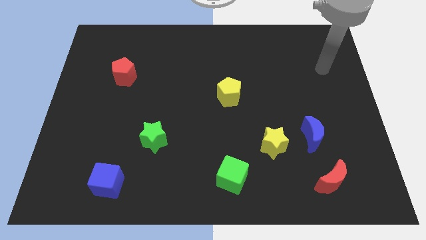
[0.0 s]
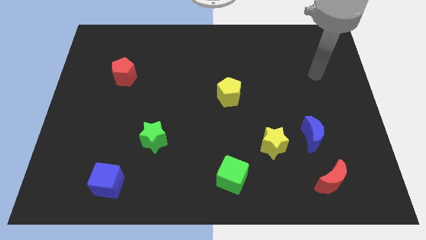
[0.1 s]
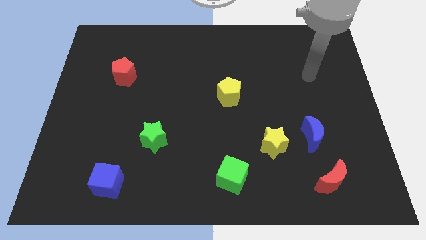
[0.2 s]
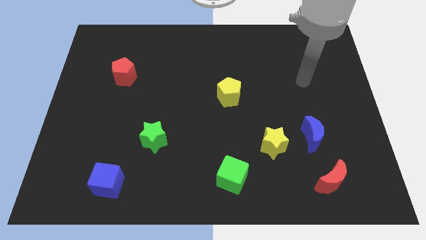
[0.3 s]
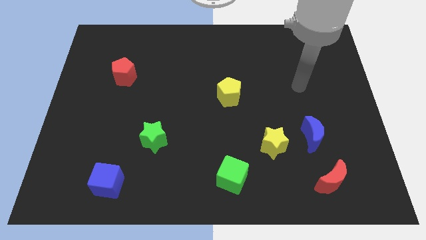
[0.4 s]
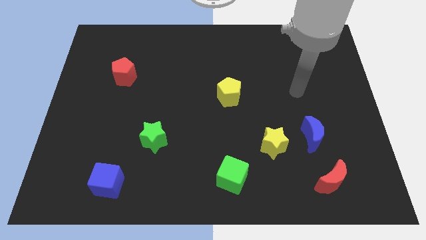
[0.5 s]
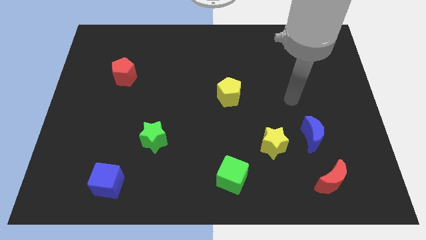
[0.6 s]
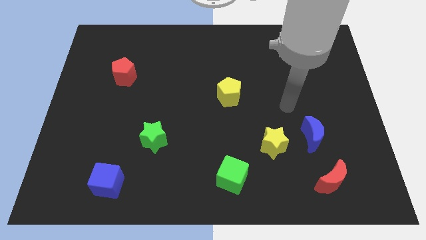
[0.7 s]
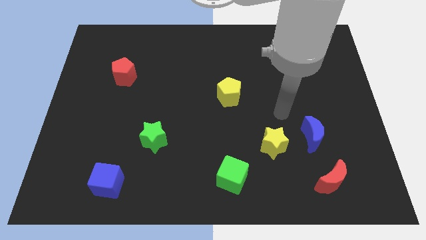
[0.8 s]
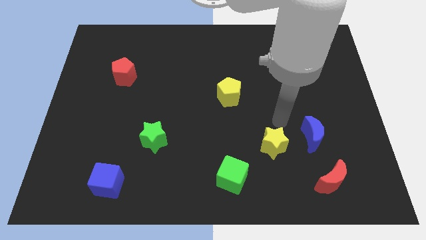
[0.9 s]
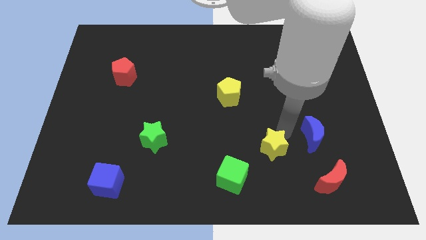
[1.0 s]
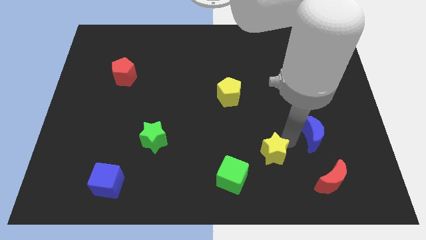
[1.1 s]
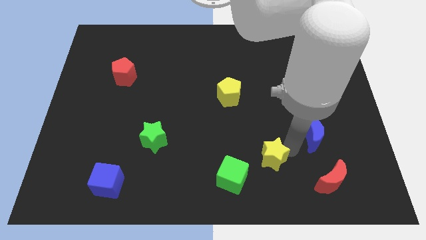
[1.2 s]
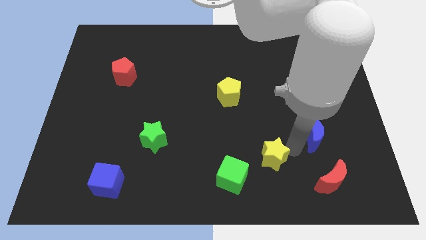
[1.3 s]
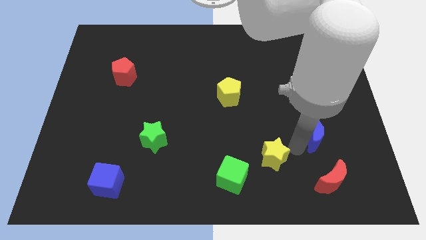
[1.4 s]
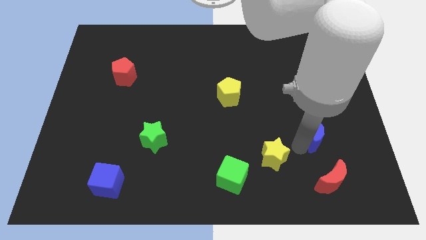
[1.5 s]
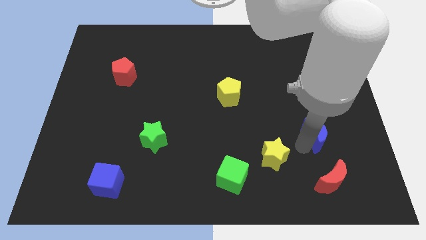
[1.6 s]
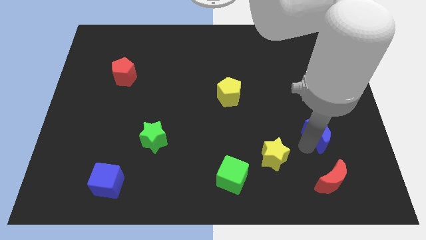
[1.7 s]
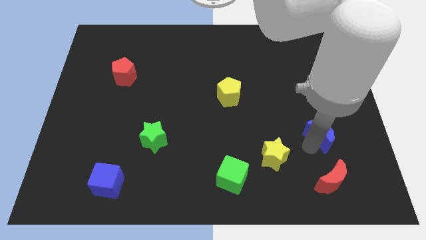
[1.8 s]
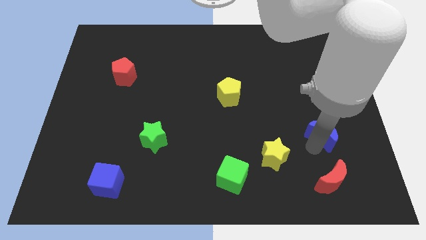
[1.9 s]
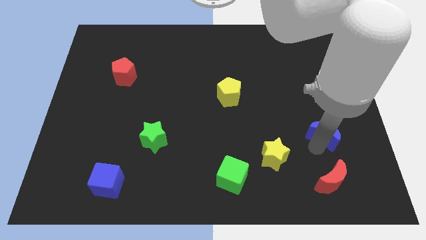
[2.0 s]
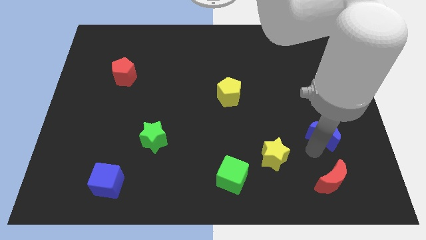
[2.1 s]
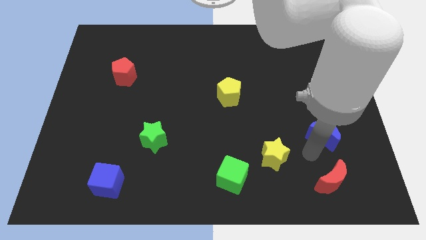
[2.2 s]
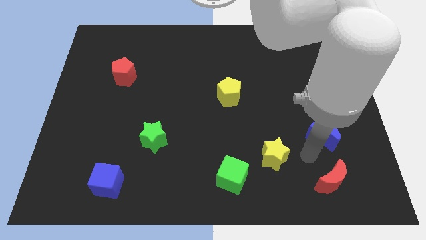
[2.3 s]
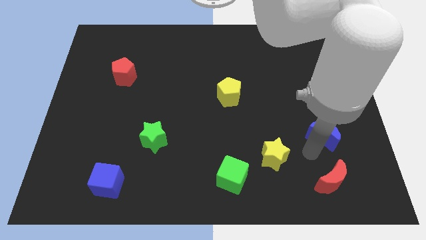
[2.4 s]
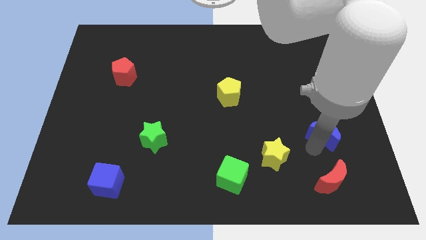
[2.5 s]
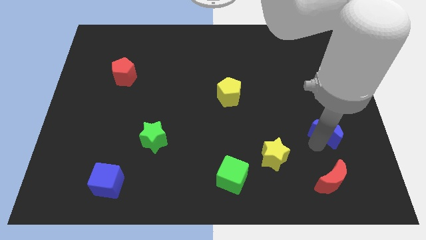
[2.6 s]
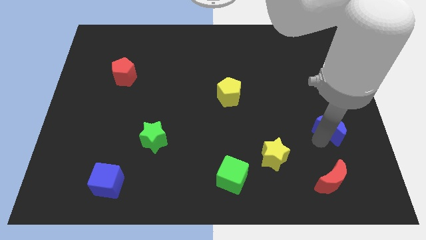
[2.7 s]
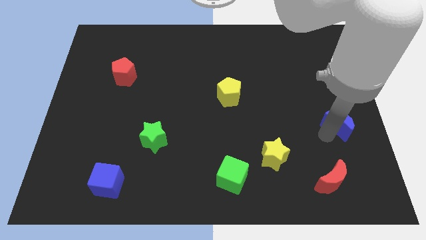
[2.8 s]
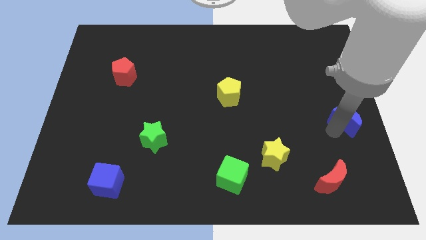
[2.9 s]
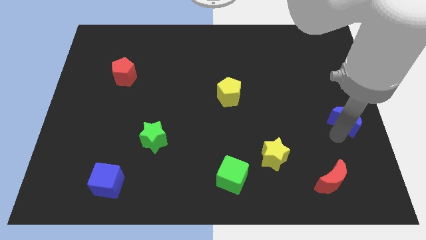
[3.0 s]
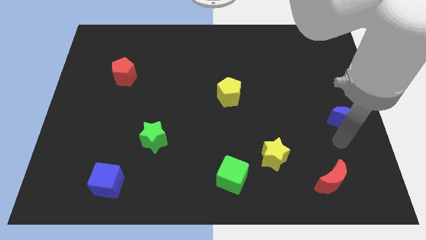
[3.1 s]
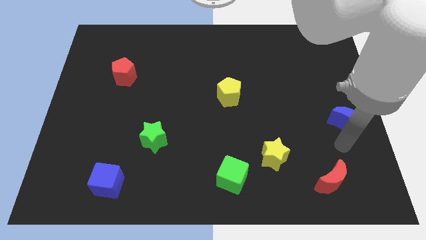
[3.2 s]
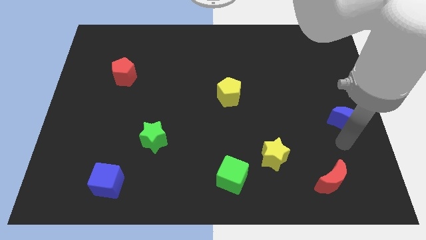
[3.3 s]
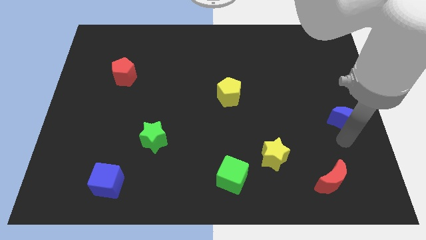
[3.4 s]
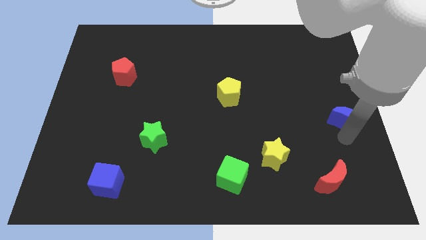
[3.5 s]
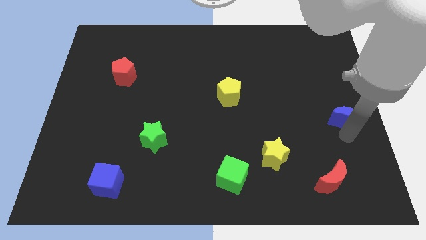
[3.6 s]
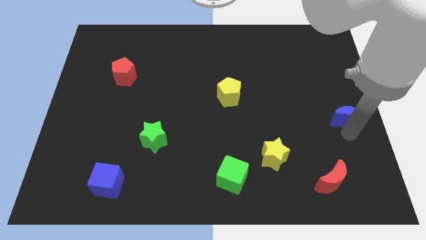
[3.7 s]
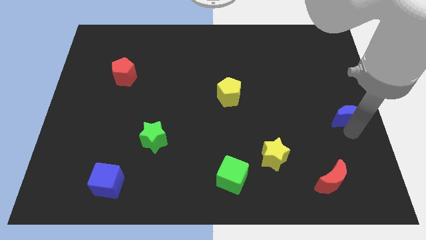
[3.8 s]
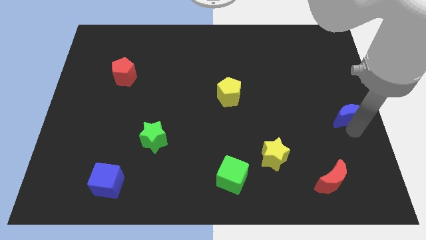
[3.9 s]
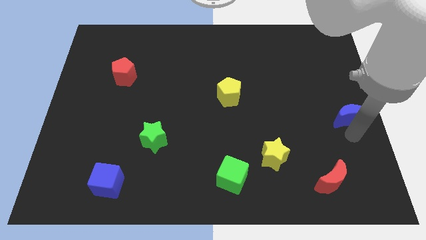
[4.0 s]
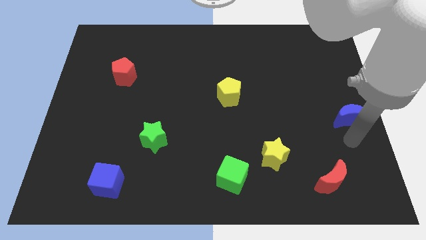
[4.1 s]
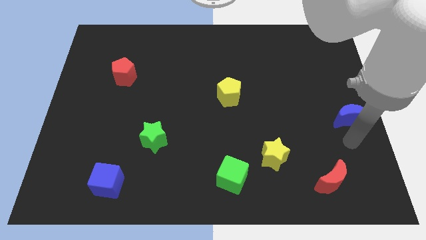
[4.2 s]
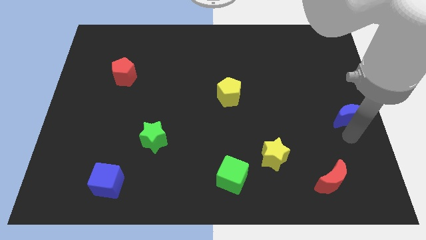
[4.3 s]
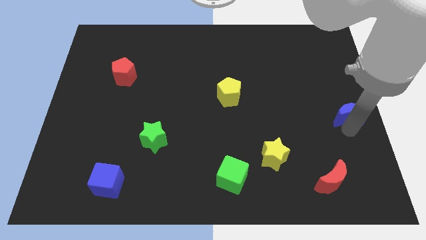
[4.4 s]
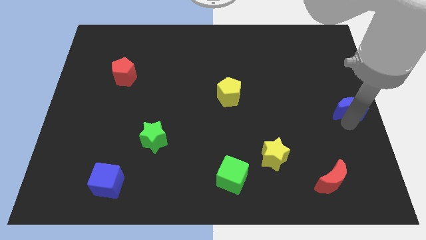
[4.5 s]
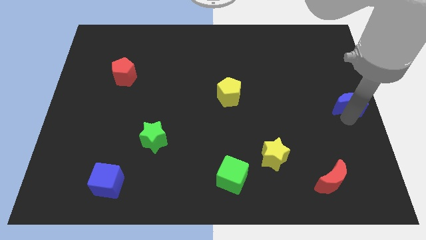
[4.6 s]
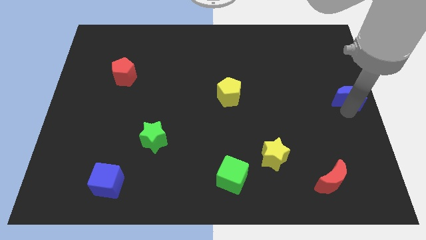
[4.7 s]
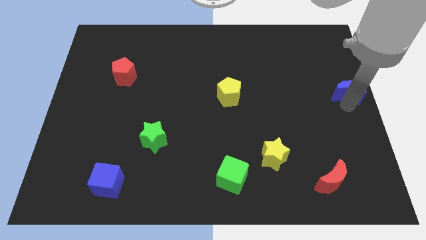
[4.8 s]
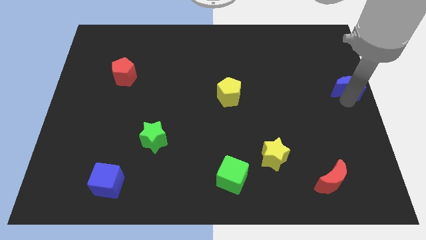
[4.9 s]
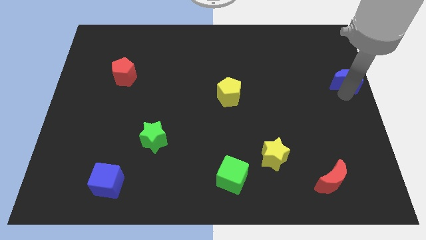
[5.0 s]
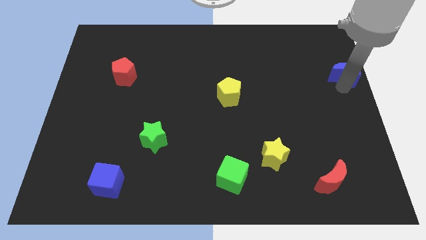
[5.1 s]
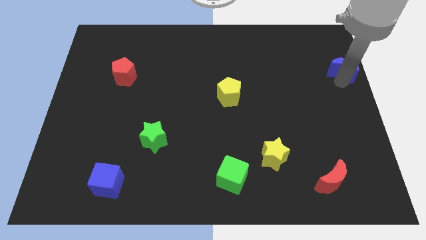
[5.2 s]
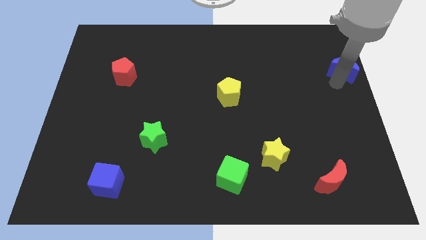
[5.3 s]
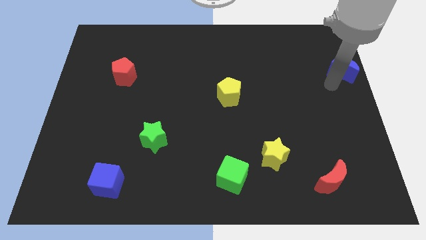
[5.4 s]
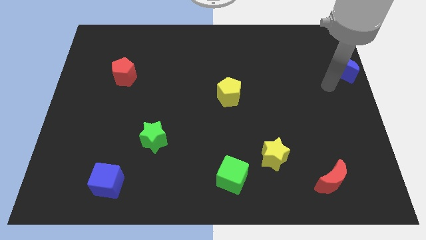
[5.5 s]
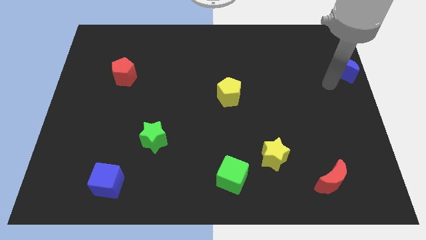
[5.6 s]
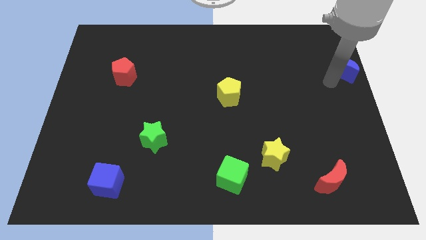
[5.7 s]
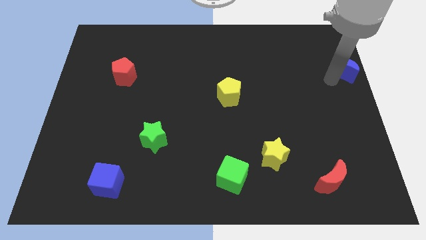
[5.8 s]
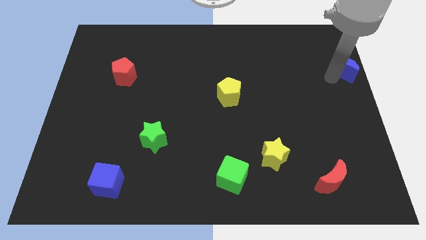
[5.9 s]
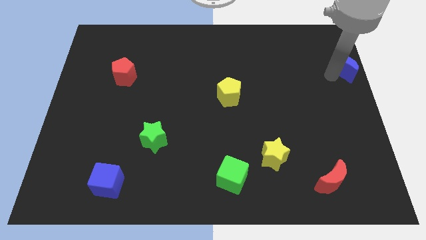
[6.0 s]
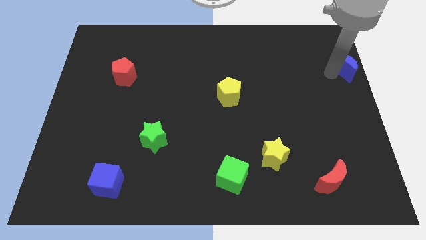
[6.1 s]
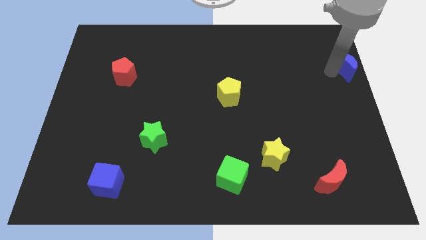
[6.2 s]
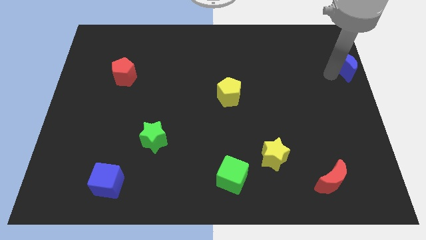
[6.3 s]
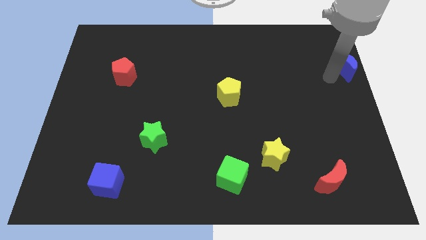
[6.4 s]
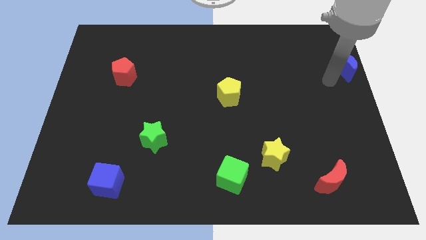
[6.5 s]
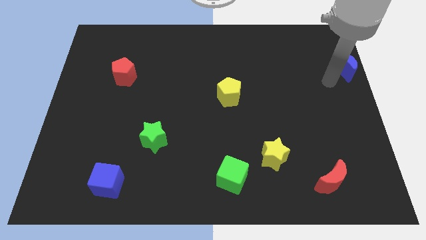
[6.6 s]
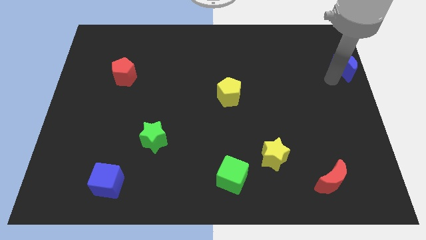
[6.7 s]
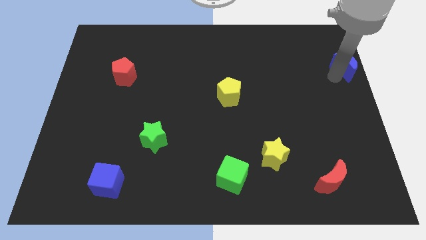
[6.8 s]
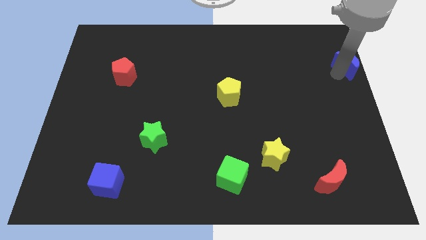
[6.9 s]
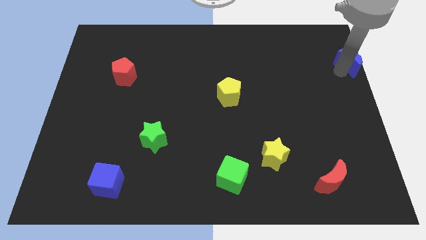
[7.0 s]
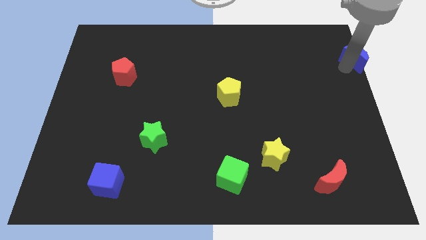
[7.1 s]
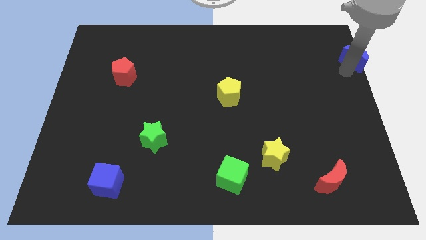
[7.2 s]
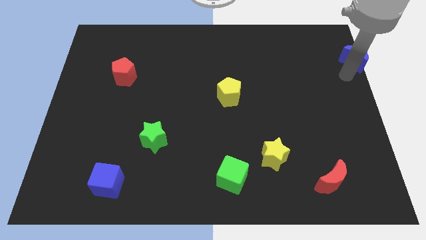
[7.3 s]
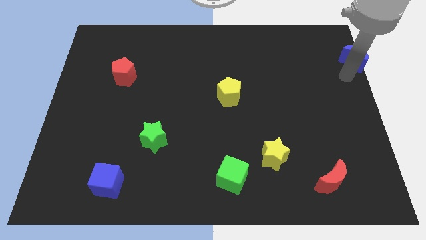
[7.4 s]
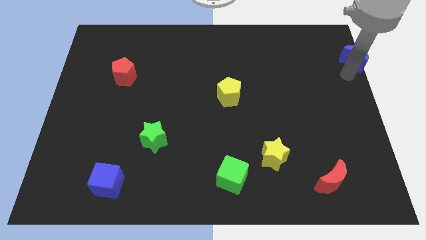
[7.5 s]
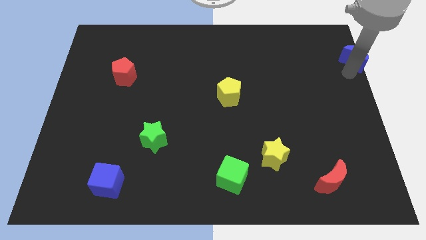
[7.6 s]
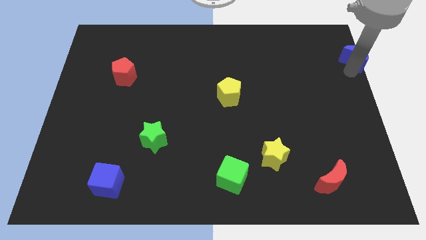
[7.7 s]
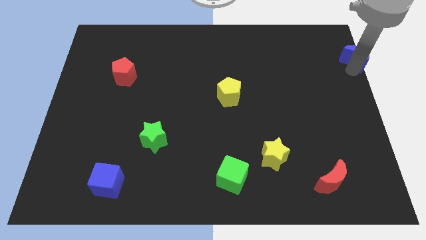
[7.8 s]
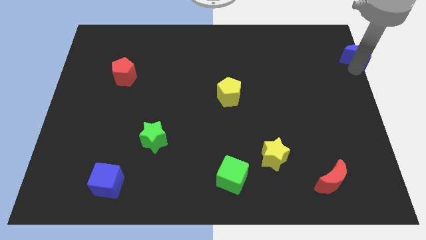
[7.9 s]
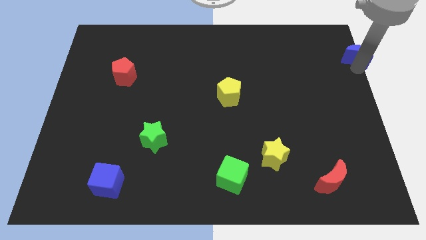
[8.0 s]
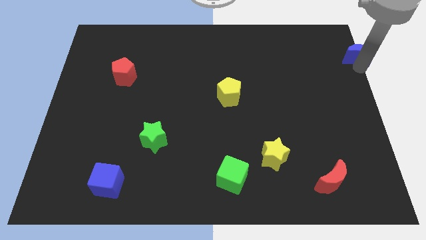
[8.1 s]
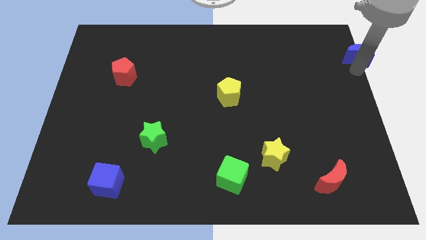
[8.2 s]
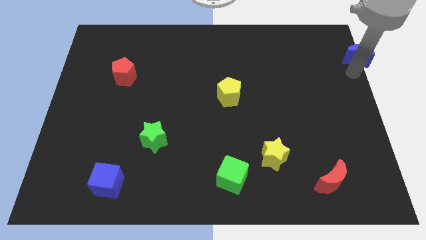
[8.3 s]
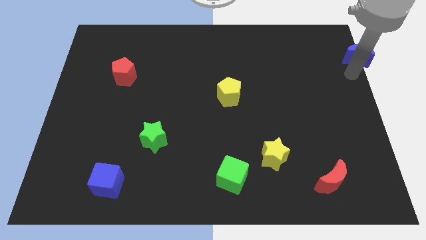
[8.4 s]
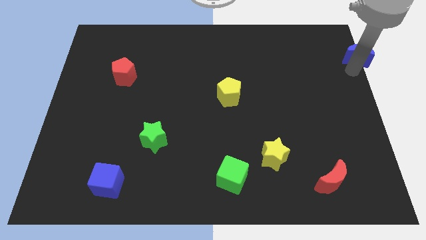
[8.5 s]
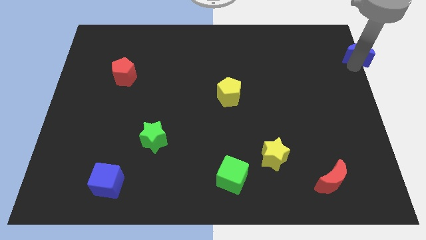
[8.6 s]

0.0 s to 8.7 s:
move the blue moon to the top right corner
